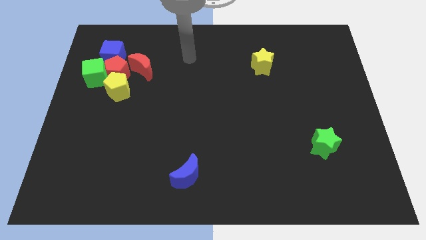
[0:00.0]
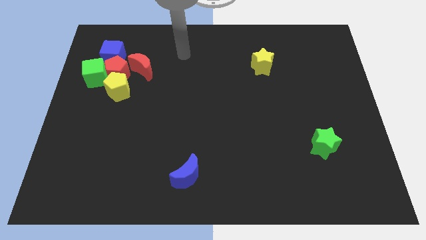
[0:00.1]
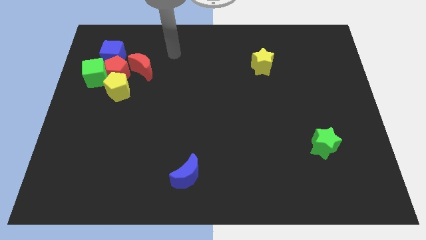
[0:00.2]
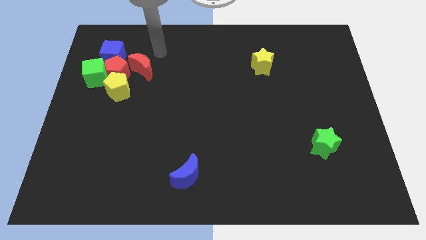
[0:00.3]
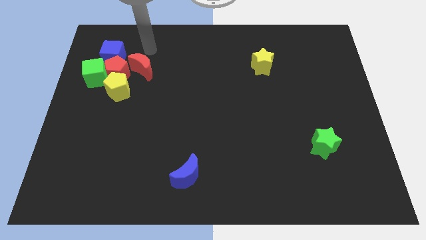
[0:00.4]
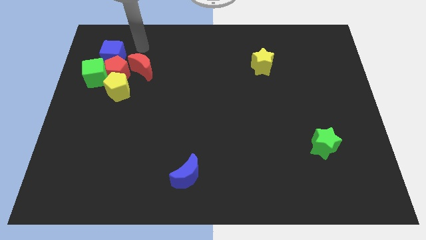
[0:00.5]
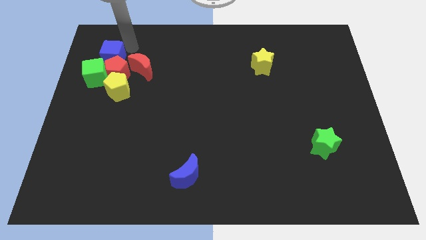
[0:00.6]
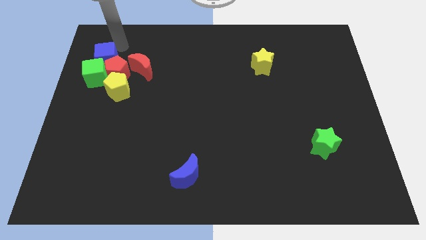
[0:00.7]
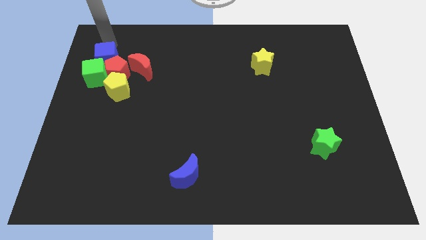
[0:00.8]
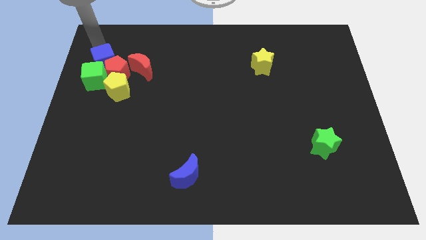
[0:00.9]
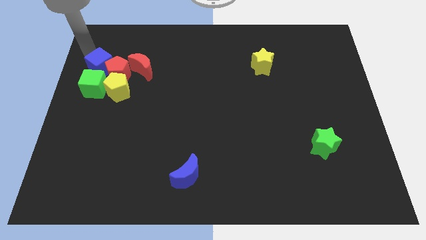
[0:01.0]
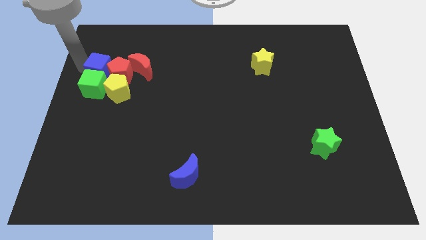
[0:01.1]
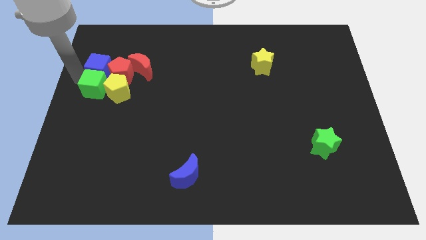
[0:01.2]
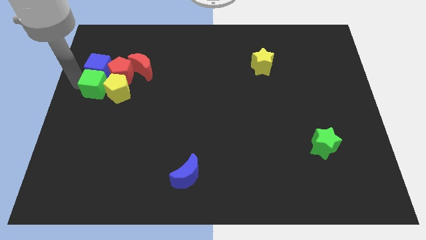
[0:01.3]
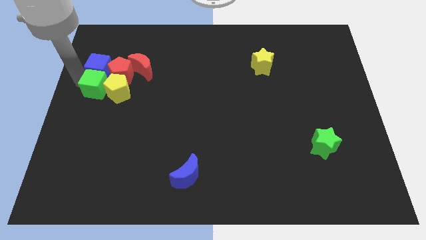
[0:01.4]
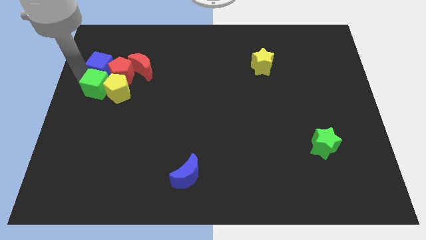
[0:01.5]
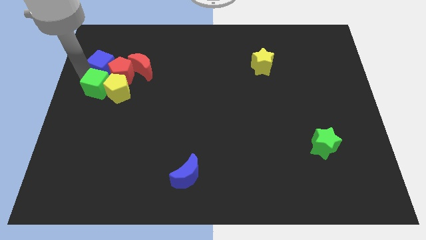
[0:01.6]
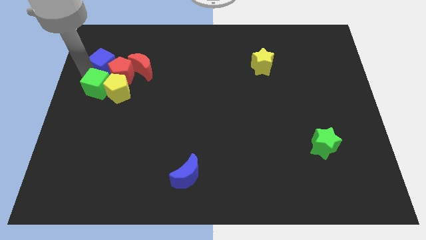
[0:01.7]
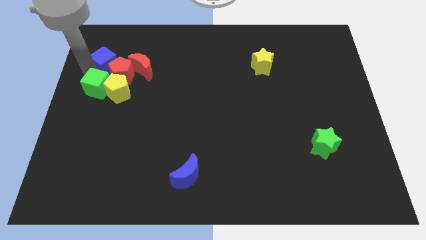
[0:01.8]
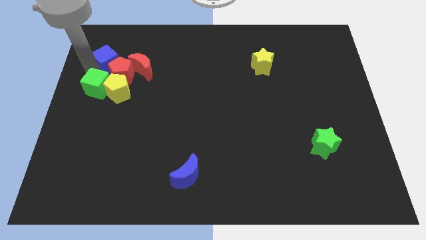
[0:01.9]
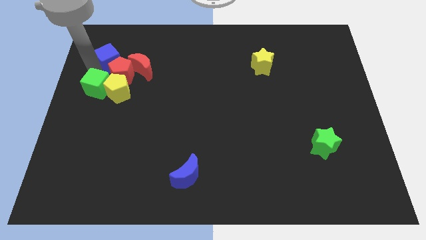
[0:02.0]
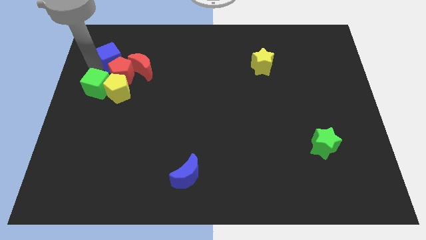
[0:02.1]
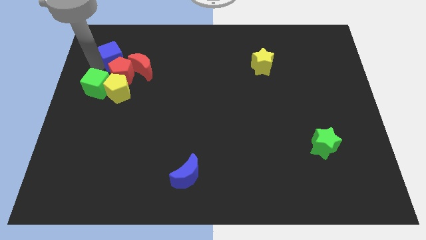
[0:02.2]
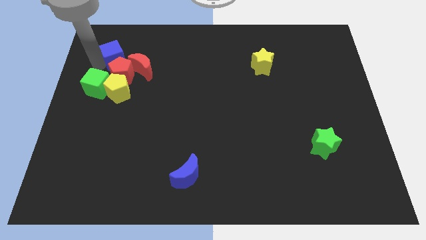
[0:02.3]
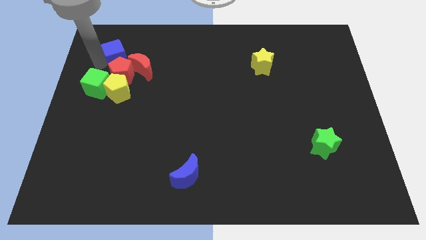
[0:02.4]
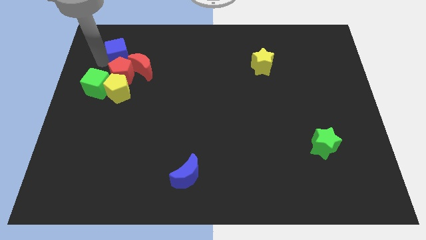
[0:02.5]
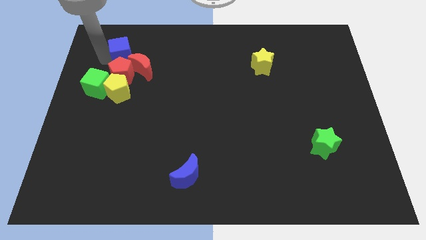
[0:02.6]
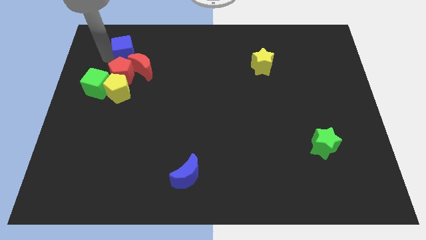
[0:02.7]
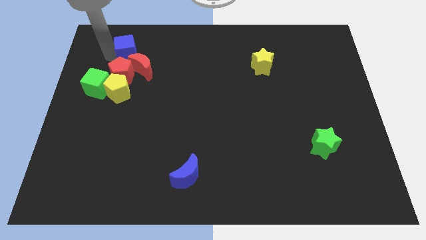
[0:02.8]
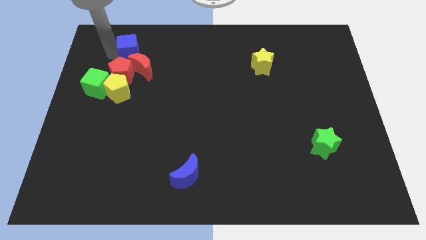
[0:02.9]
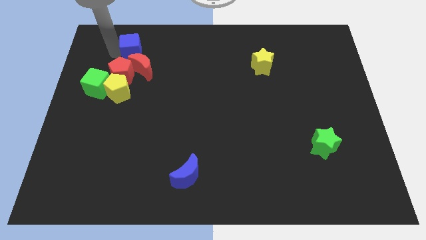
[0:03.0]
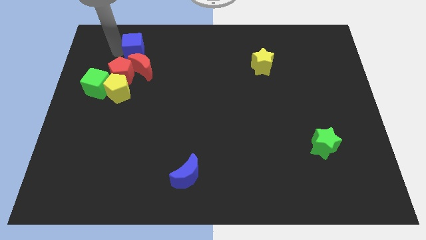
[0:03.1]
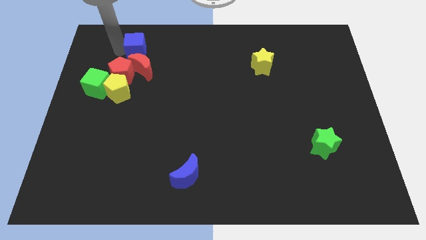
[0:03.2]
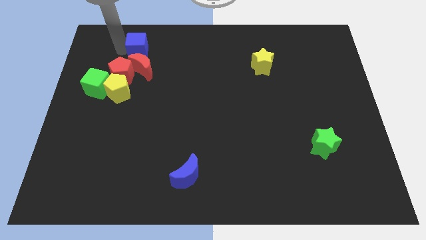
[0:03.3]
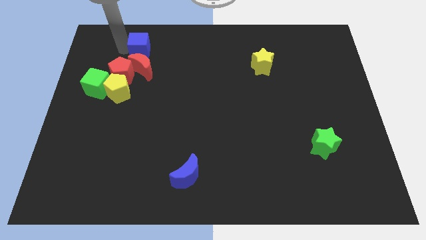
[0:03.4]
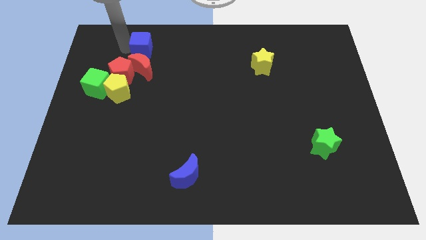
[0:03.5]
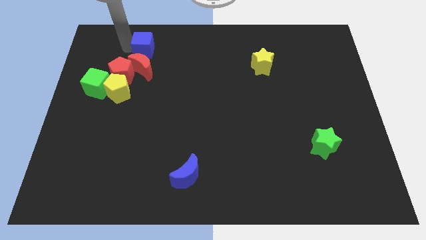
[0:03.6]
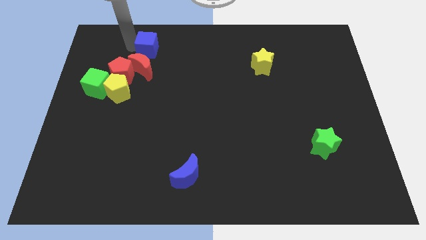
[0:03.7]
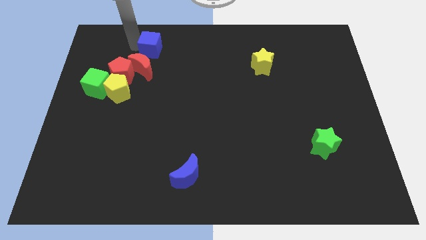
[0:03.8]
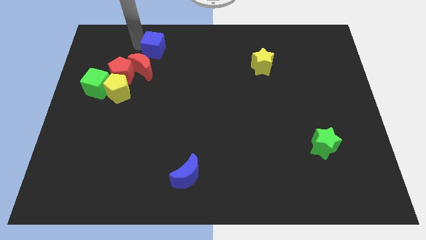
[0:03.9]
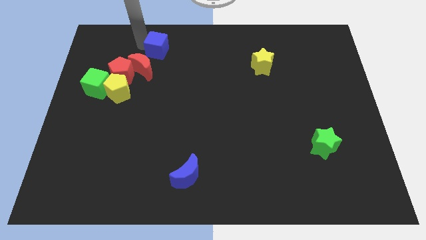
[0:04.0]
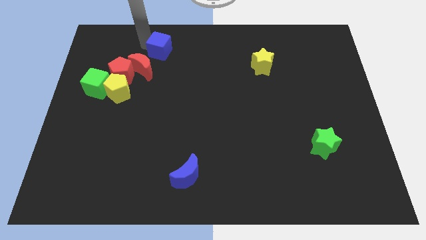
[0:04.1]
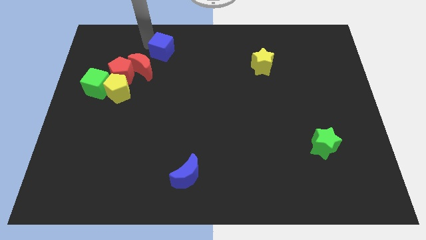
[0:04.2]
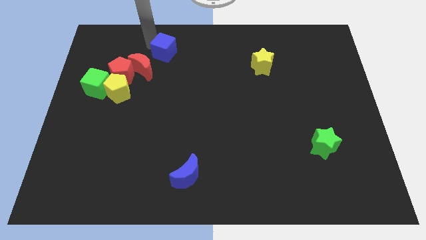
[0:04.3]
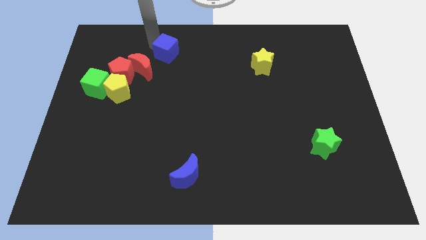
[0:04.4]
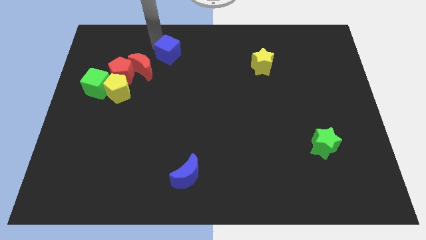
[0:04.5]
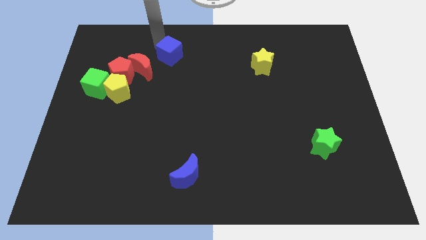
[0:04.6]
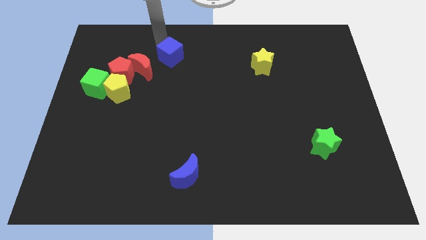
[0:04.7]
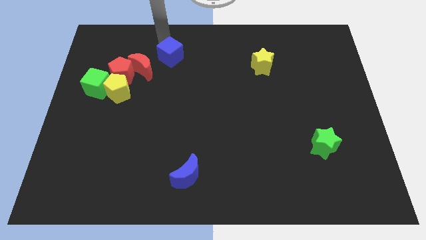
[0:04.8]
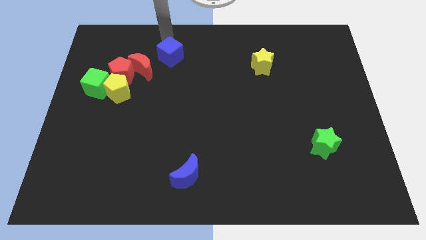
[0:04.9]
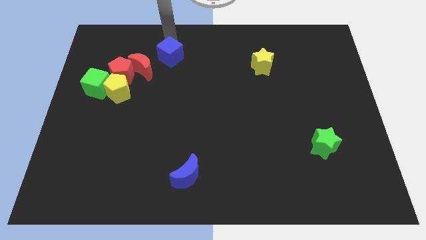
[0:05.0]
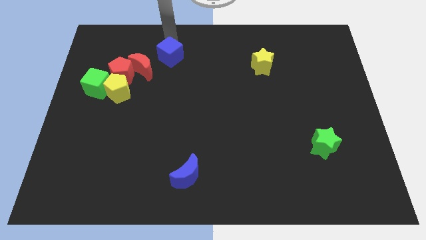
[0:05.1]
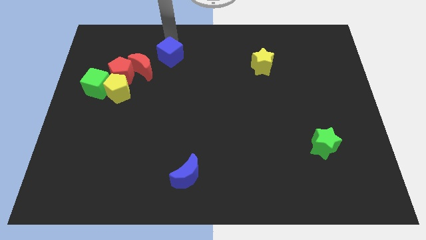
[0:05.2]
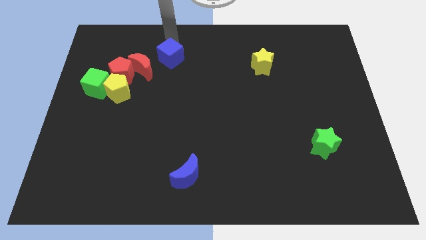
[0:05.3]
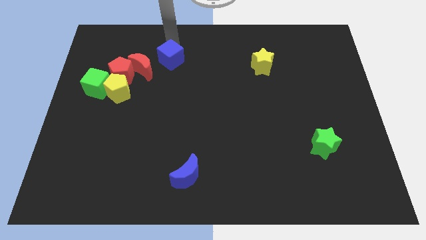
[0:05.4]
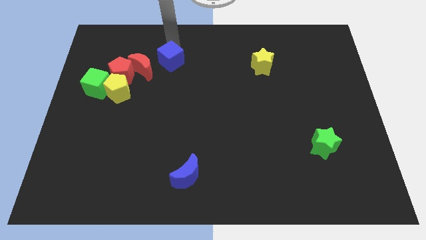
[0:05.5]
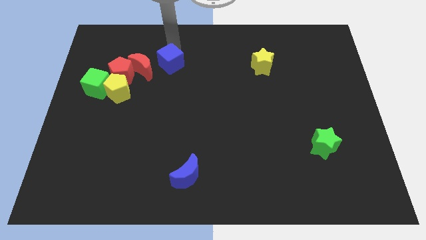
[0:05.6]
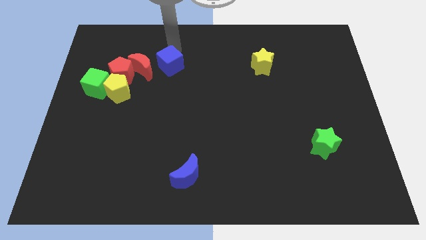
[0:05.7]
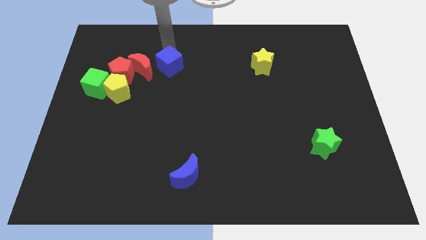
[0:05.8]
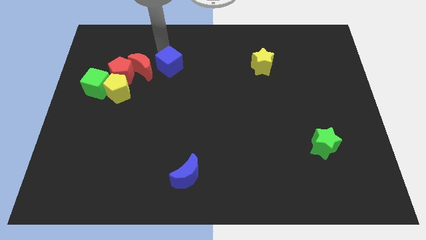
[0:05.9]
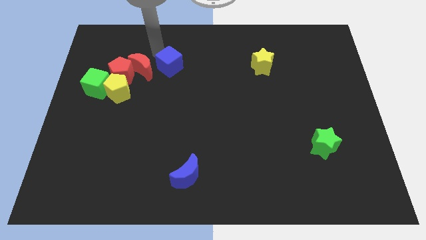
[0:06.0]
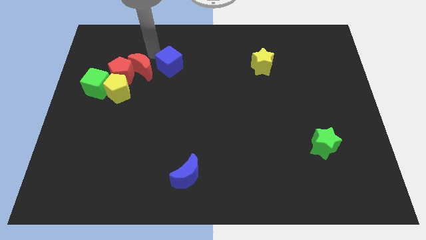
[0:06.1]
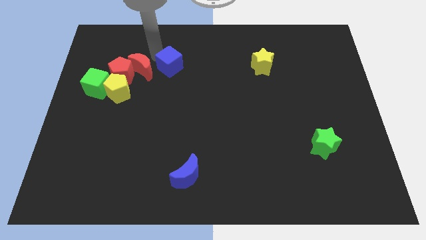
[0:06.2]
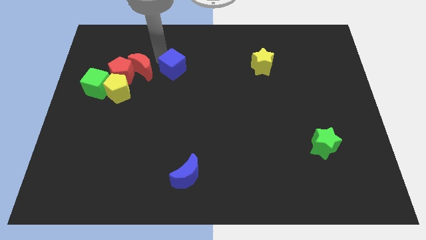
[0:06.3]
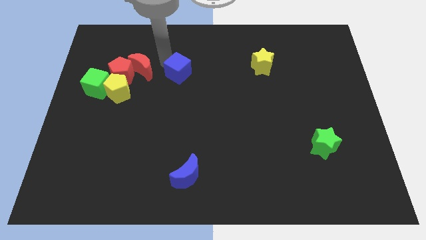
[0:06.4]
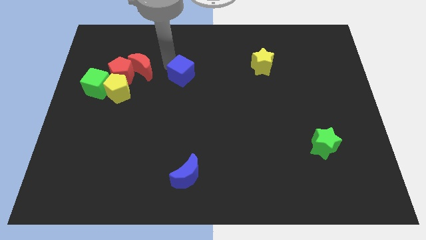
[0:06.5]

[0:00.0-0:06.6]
move the blue cube to the center

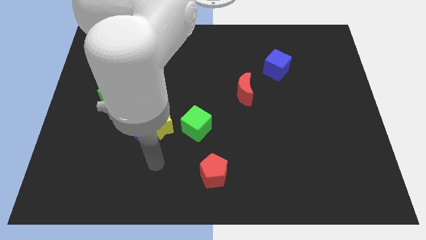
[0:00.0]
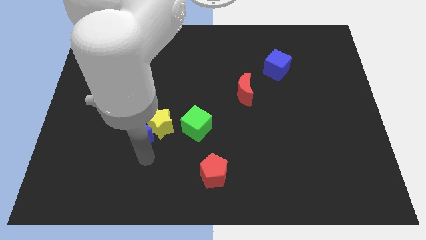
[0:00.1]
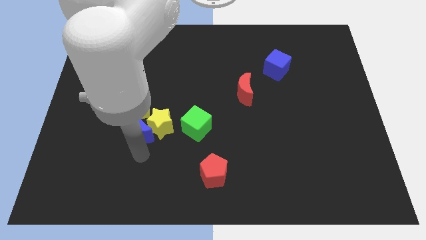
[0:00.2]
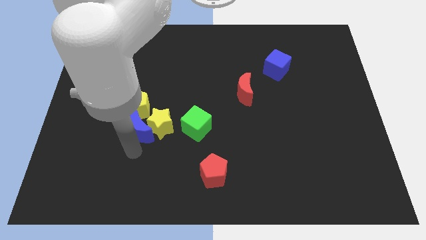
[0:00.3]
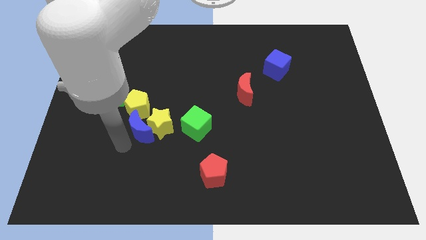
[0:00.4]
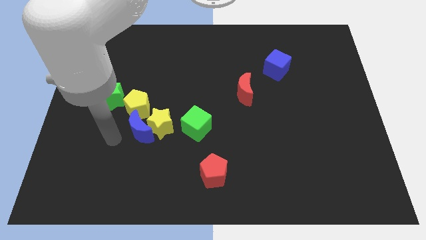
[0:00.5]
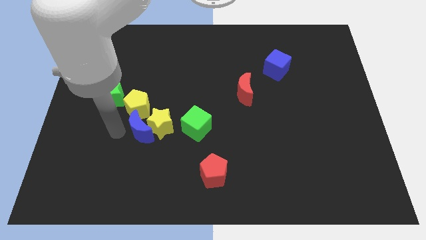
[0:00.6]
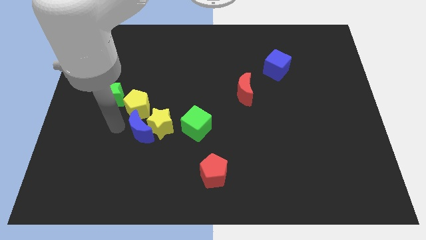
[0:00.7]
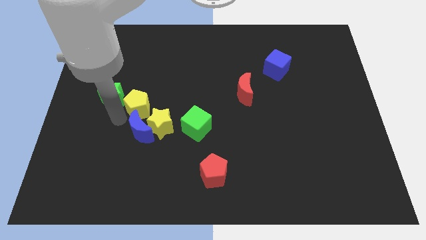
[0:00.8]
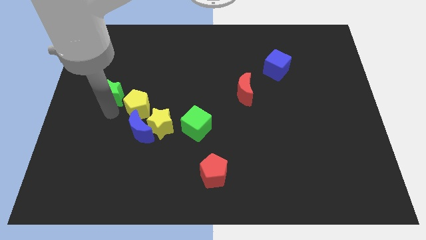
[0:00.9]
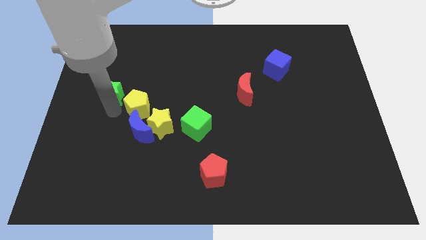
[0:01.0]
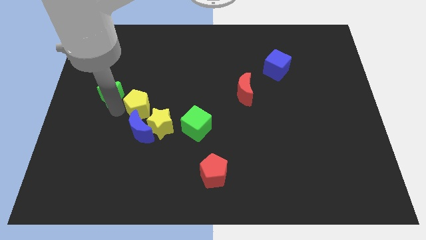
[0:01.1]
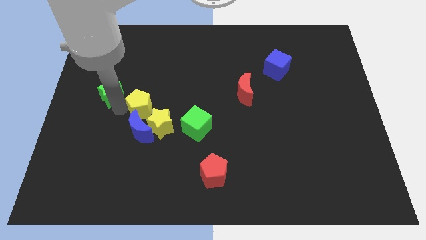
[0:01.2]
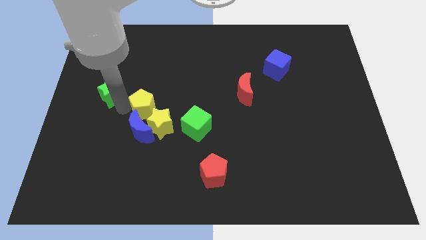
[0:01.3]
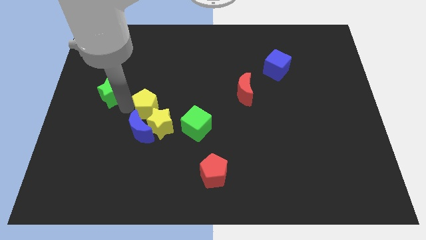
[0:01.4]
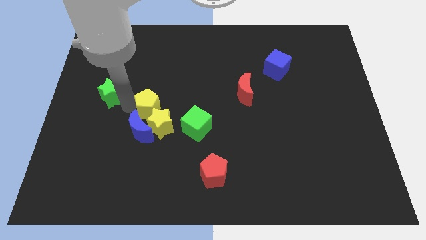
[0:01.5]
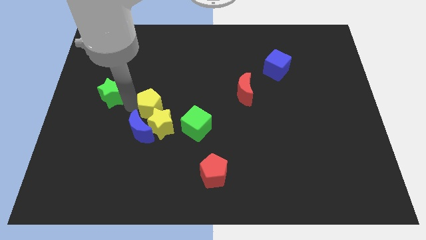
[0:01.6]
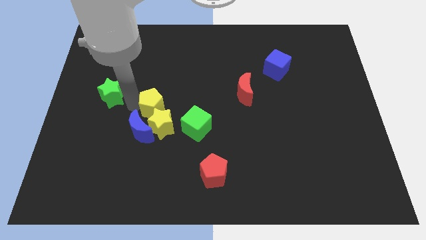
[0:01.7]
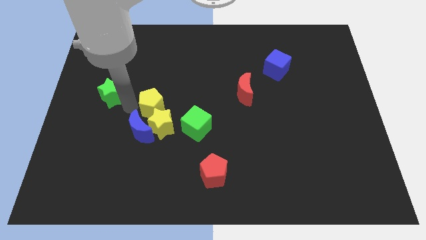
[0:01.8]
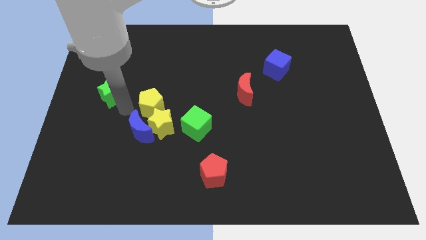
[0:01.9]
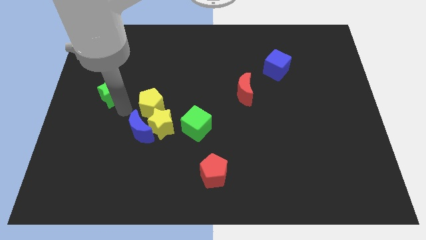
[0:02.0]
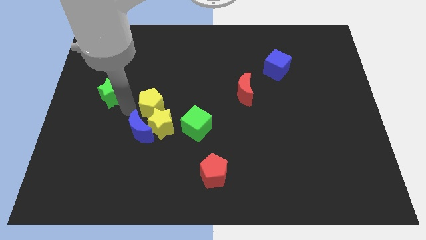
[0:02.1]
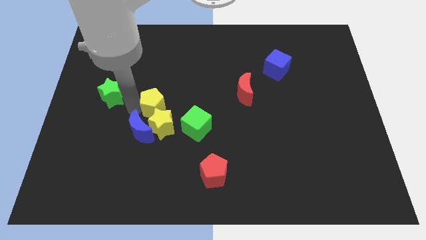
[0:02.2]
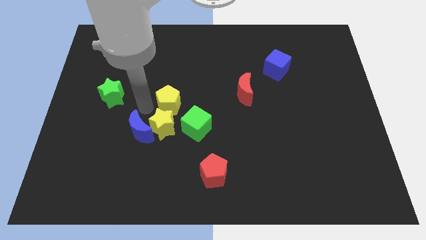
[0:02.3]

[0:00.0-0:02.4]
put the yellow pentagon to the middle
